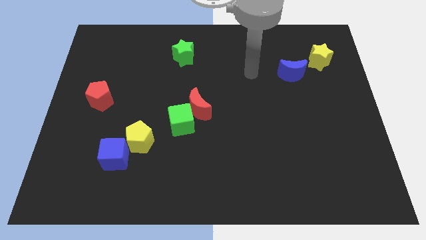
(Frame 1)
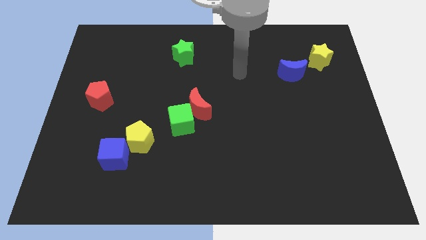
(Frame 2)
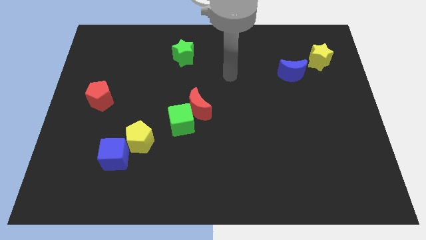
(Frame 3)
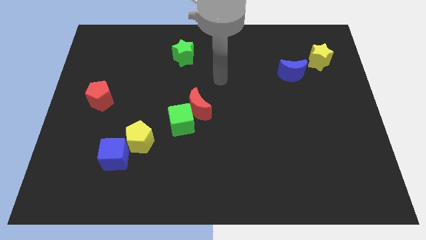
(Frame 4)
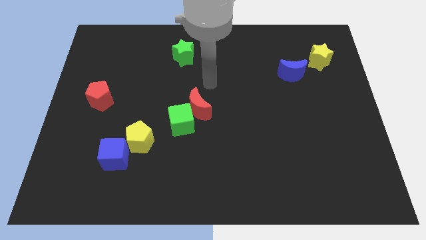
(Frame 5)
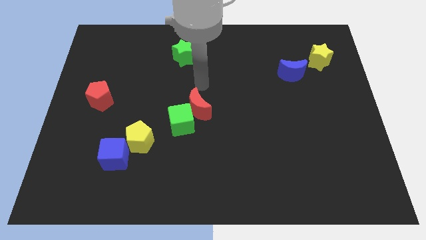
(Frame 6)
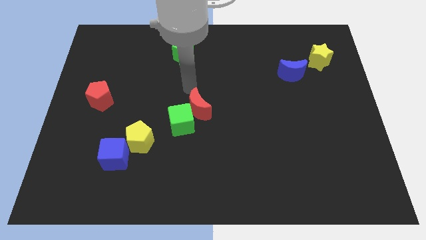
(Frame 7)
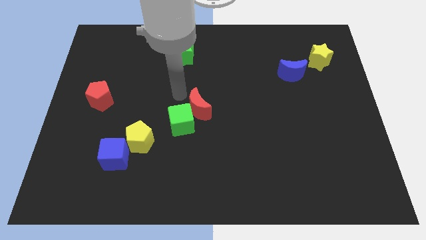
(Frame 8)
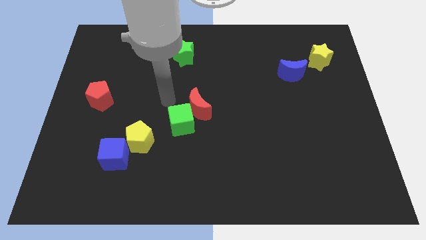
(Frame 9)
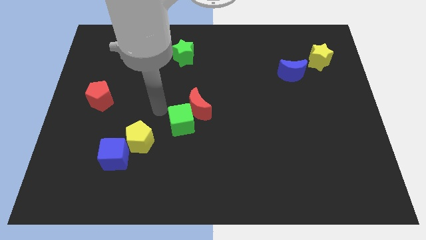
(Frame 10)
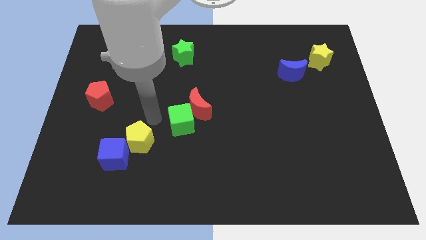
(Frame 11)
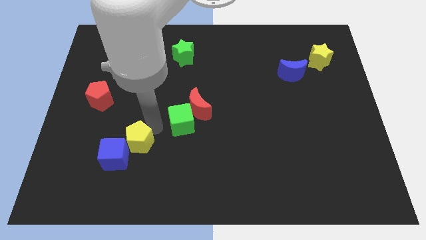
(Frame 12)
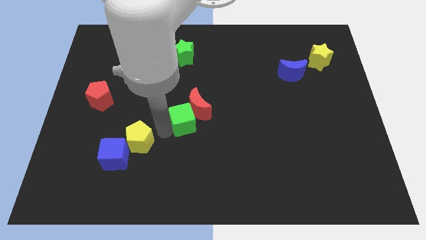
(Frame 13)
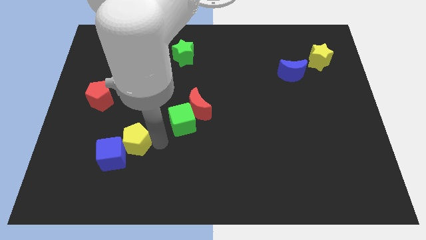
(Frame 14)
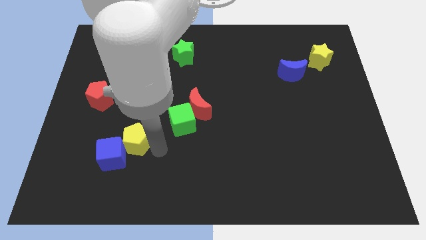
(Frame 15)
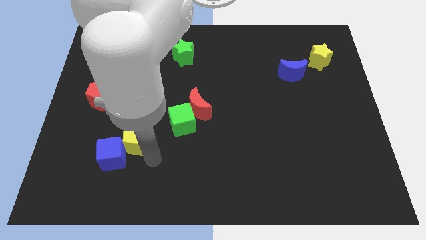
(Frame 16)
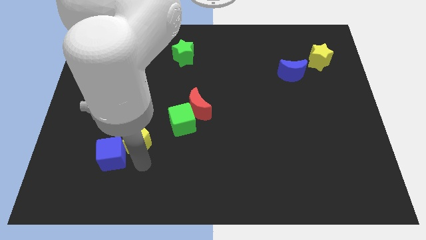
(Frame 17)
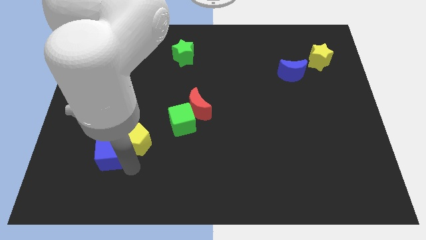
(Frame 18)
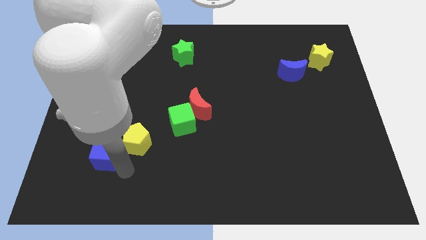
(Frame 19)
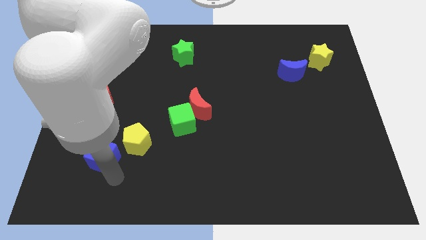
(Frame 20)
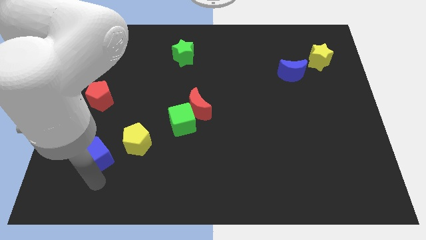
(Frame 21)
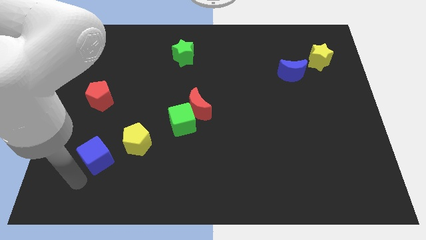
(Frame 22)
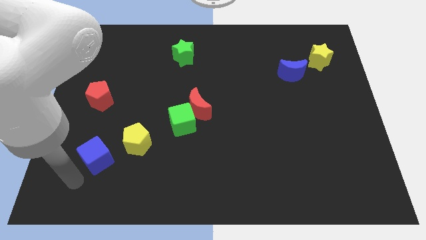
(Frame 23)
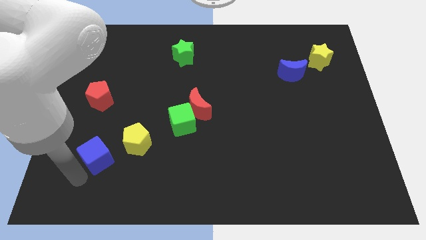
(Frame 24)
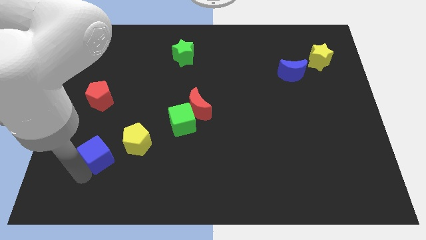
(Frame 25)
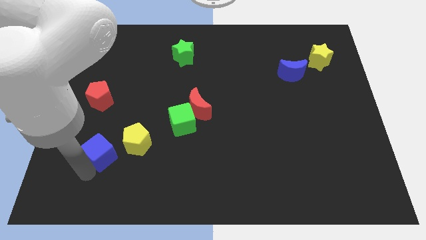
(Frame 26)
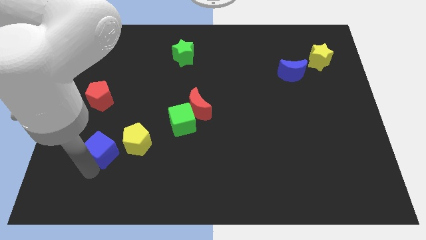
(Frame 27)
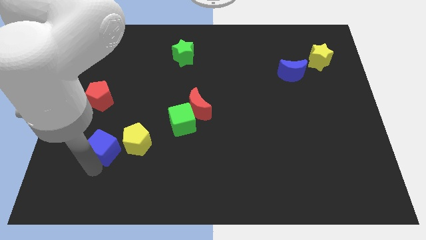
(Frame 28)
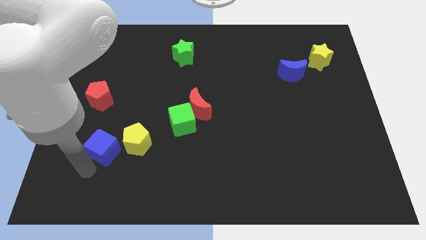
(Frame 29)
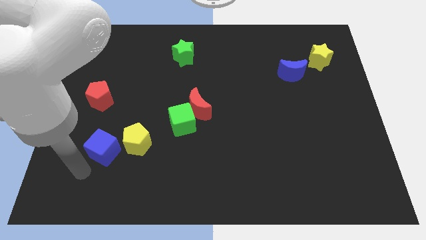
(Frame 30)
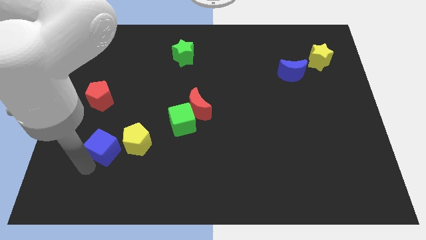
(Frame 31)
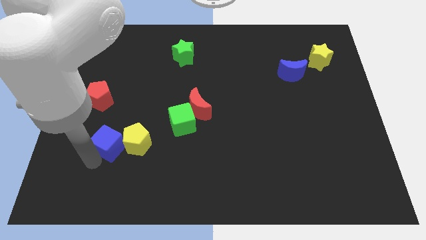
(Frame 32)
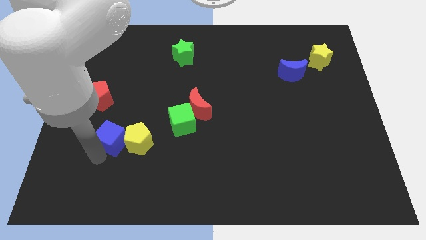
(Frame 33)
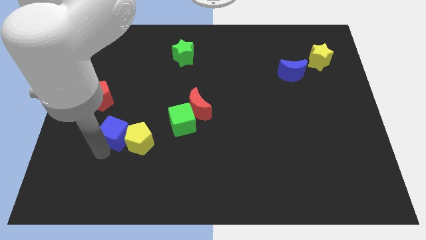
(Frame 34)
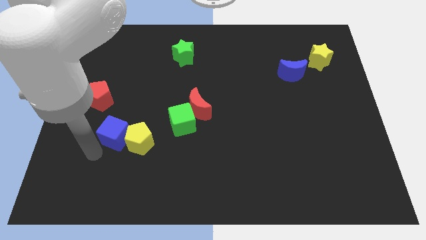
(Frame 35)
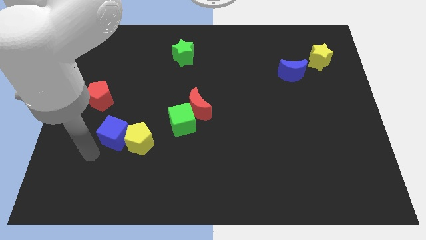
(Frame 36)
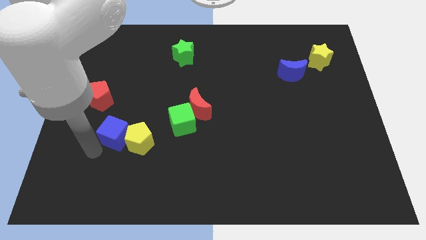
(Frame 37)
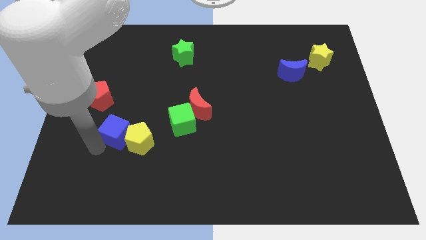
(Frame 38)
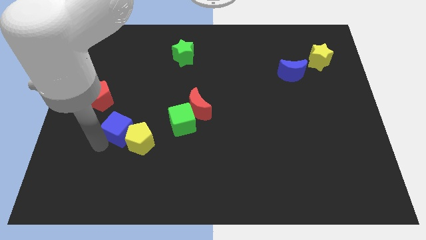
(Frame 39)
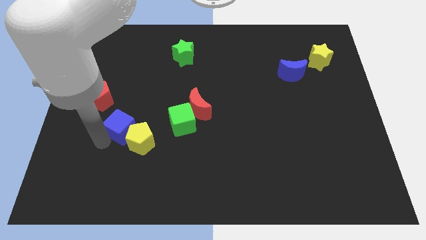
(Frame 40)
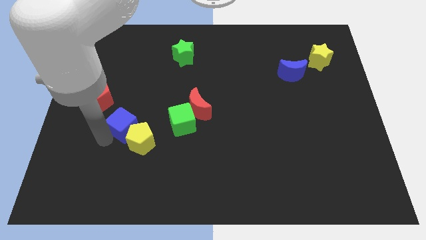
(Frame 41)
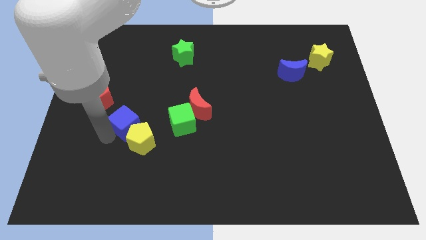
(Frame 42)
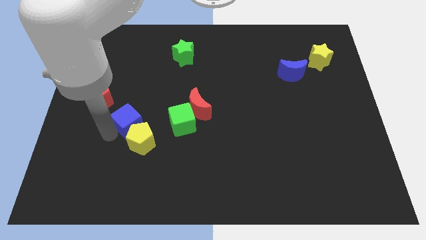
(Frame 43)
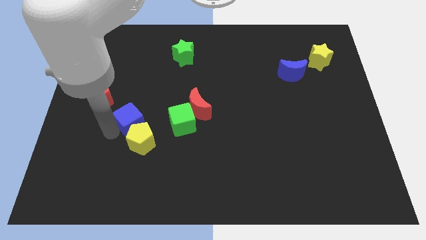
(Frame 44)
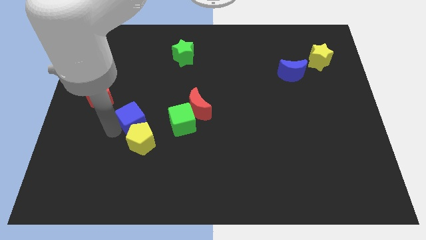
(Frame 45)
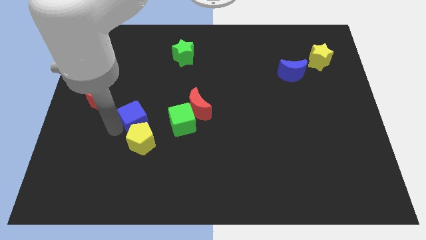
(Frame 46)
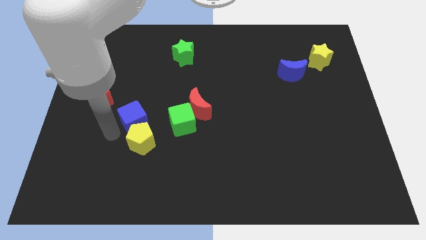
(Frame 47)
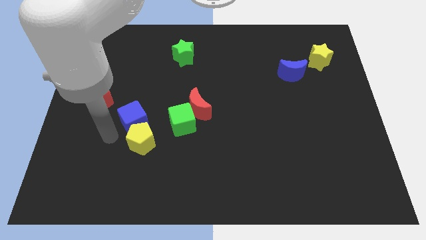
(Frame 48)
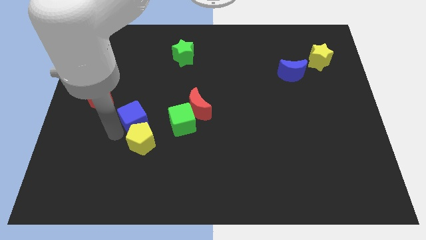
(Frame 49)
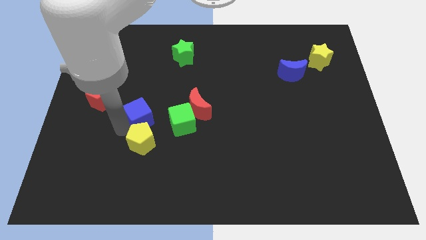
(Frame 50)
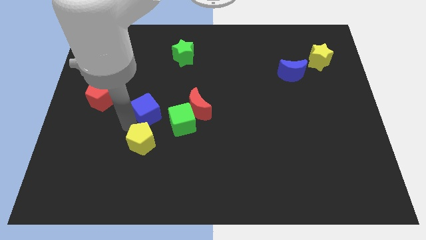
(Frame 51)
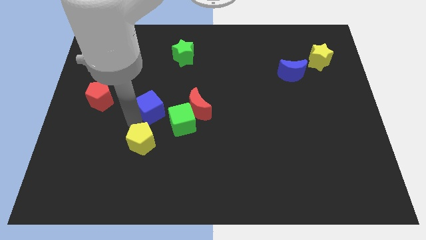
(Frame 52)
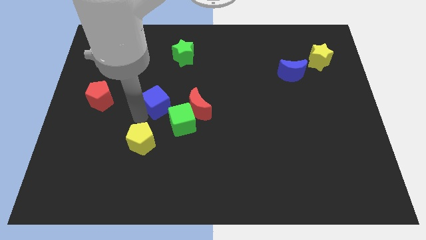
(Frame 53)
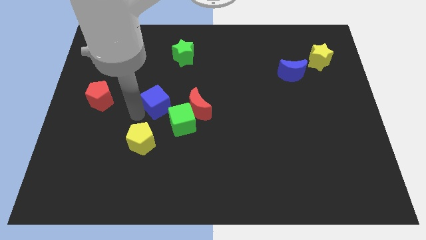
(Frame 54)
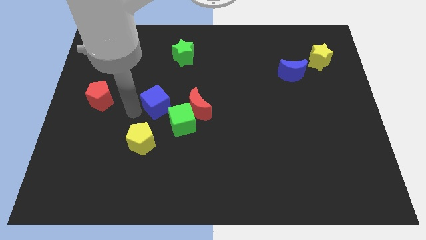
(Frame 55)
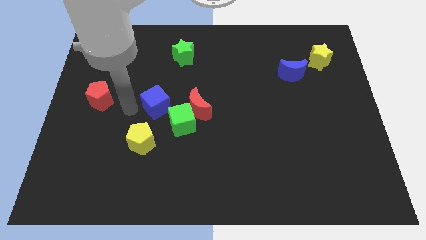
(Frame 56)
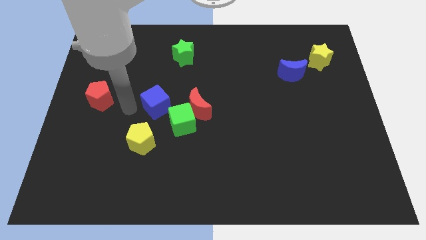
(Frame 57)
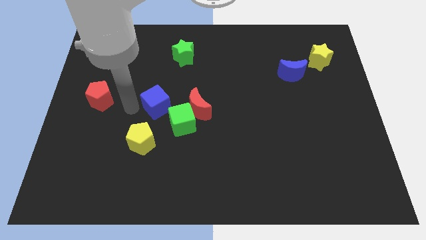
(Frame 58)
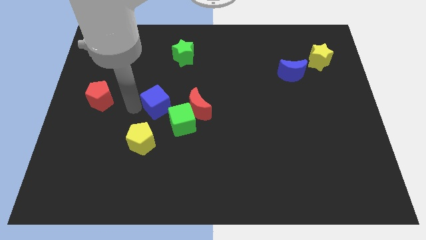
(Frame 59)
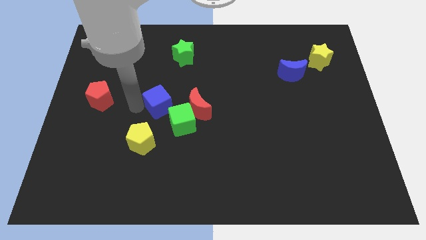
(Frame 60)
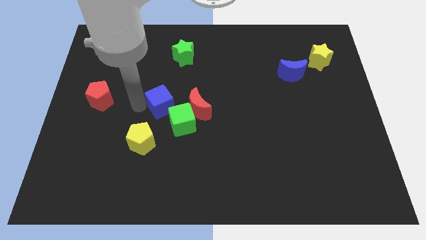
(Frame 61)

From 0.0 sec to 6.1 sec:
move the blue cube to the middle
